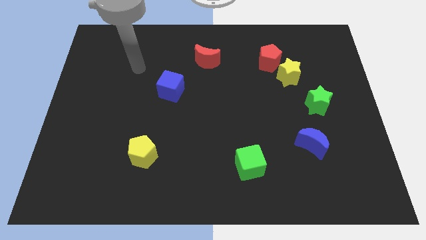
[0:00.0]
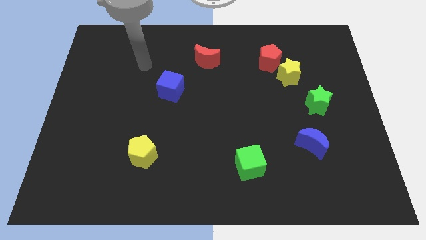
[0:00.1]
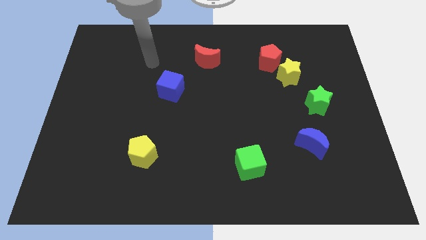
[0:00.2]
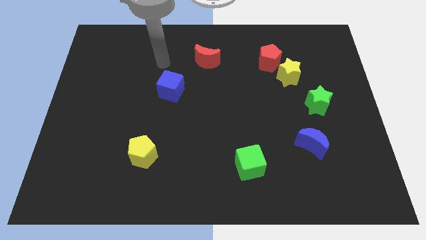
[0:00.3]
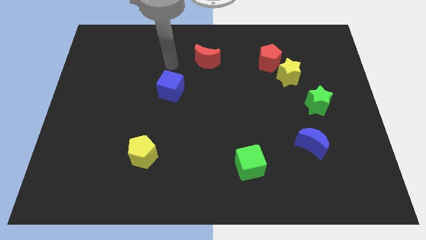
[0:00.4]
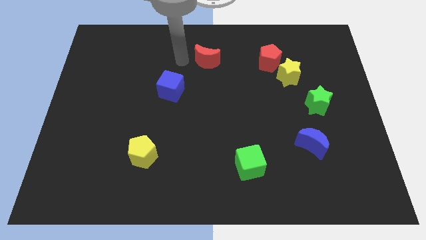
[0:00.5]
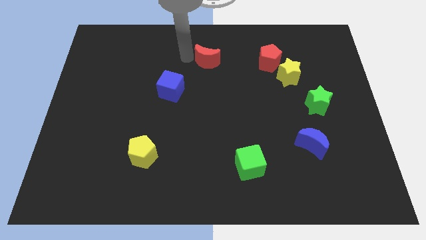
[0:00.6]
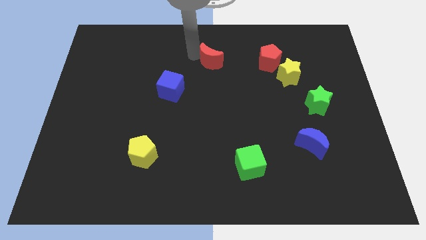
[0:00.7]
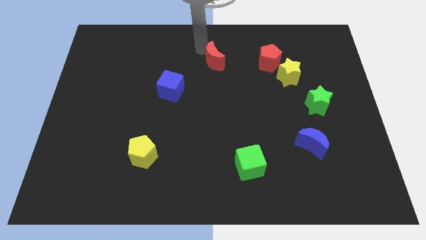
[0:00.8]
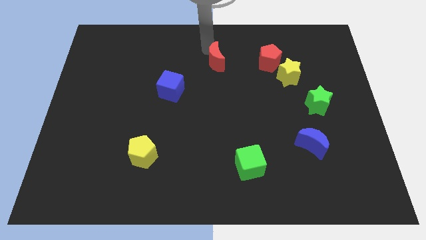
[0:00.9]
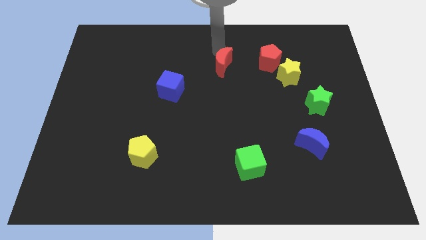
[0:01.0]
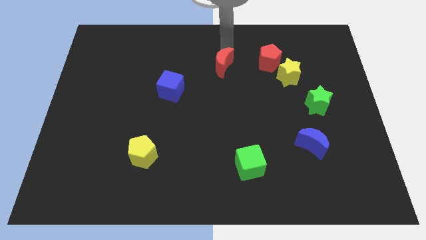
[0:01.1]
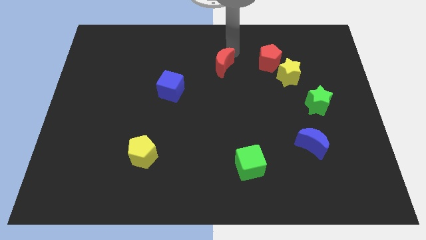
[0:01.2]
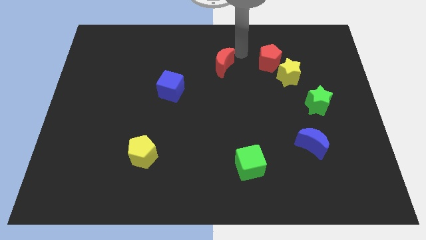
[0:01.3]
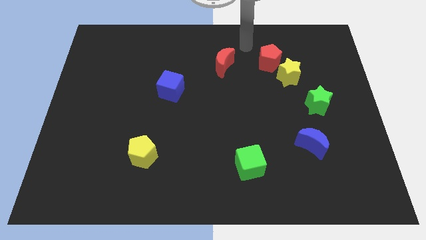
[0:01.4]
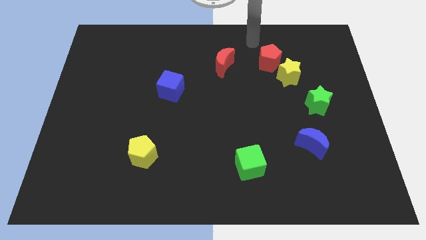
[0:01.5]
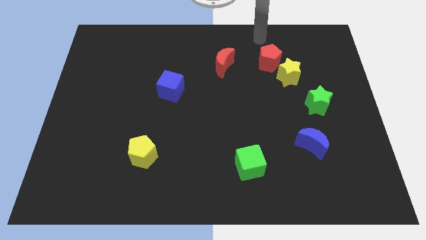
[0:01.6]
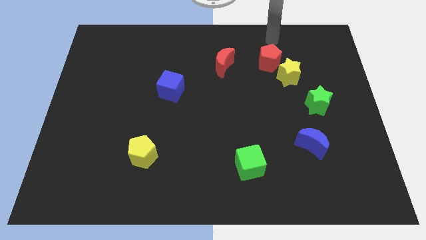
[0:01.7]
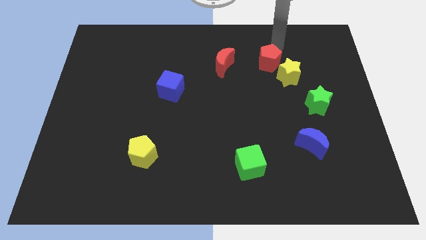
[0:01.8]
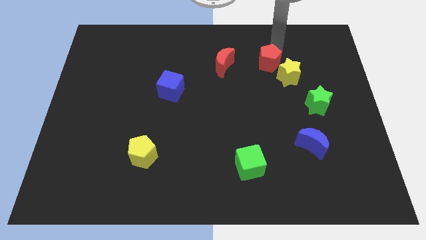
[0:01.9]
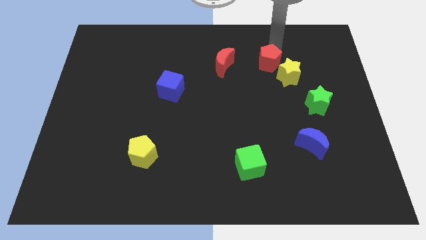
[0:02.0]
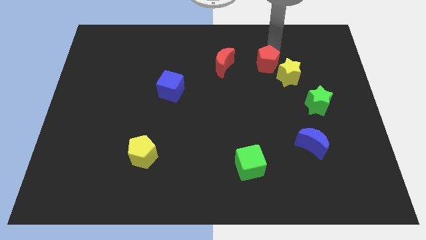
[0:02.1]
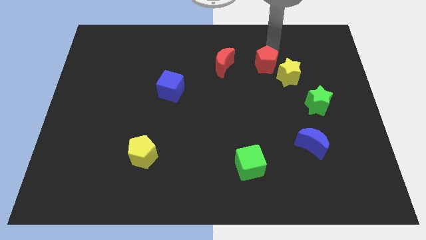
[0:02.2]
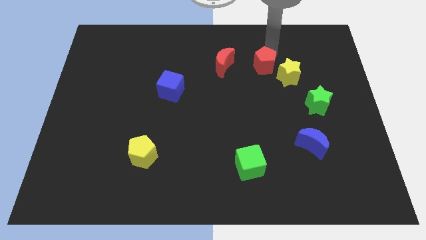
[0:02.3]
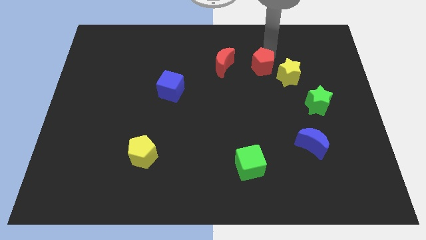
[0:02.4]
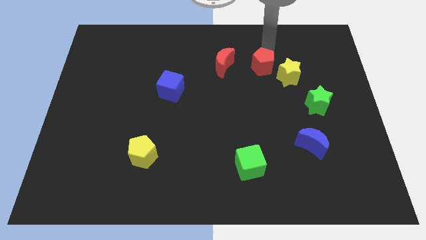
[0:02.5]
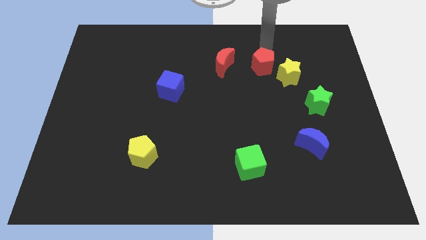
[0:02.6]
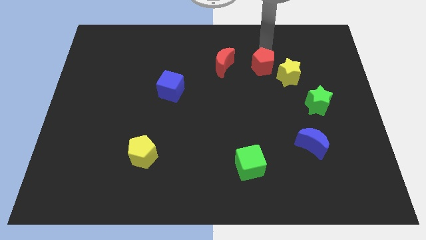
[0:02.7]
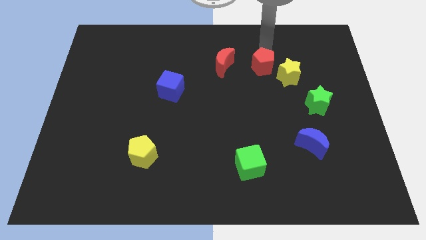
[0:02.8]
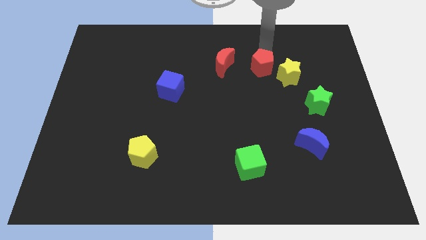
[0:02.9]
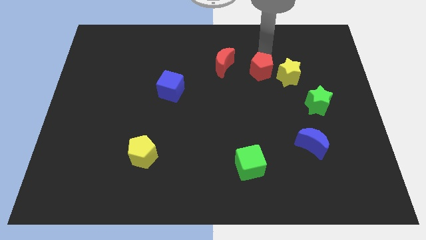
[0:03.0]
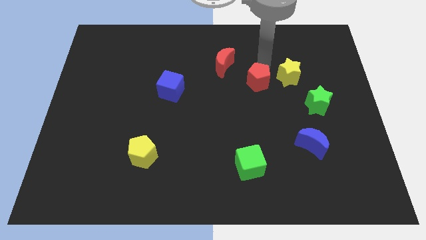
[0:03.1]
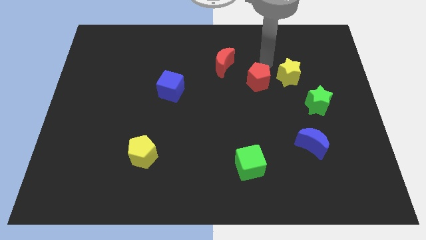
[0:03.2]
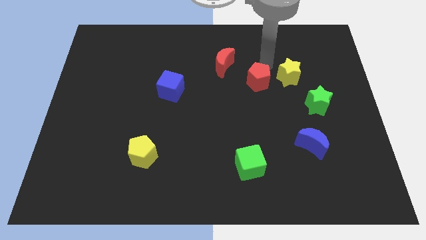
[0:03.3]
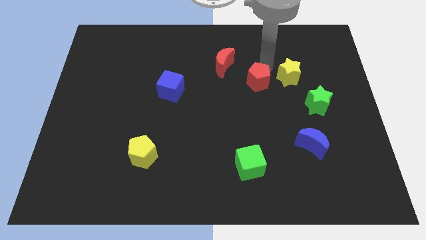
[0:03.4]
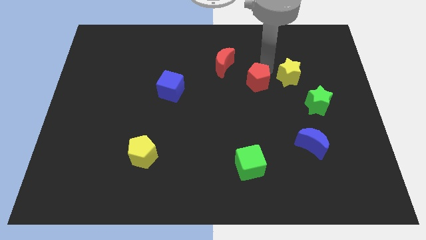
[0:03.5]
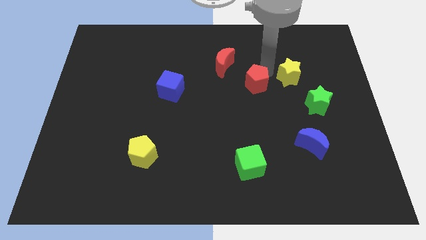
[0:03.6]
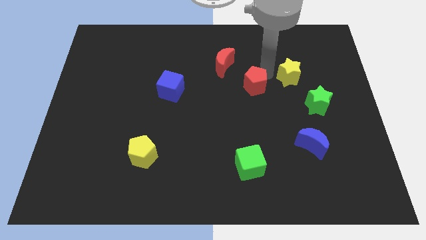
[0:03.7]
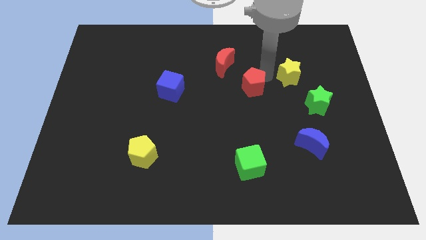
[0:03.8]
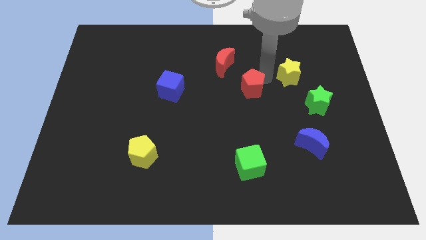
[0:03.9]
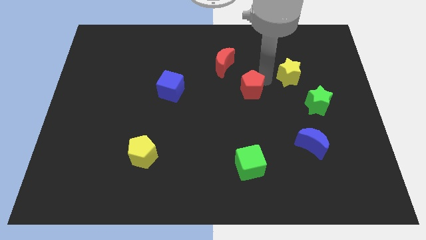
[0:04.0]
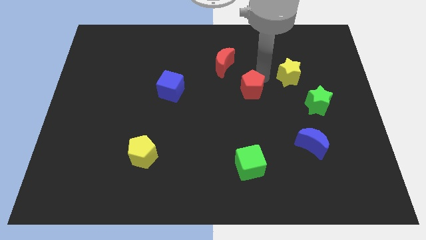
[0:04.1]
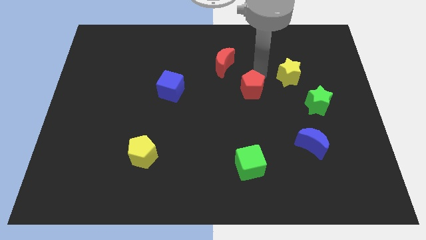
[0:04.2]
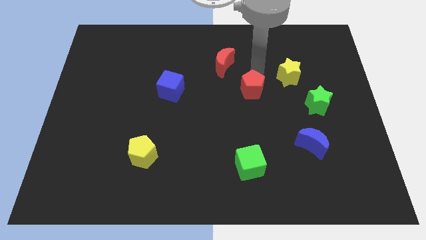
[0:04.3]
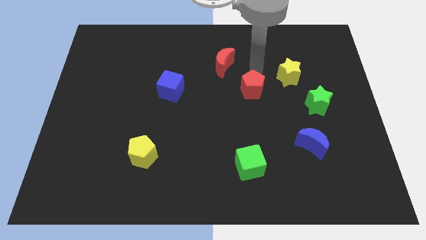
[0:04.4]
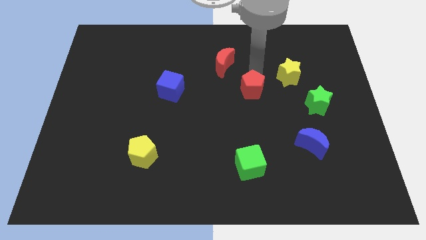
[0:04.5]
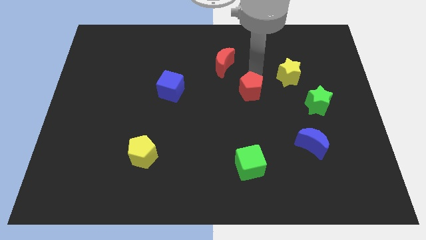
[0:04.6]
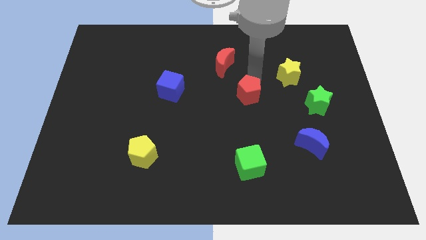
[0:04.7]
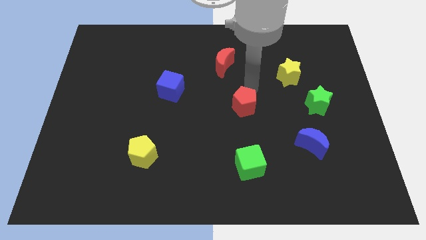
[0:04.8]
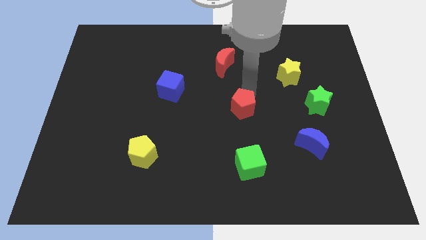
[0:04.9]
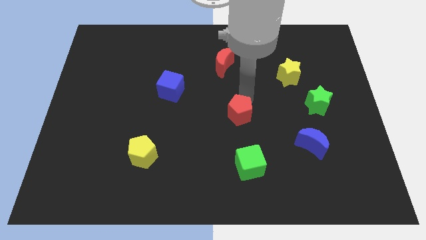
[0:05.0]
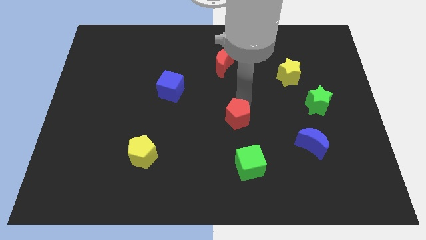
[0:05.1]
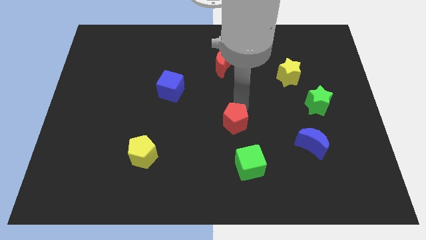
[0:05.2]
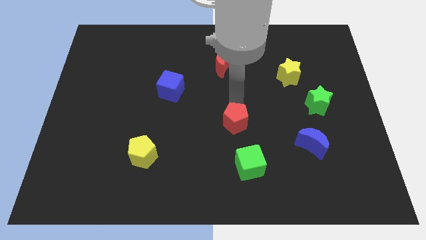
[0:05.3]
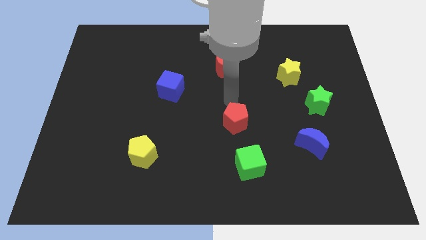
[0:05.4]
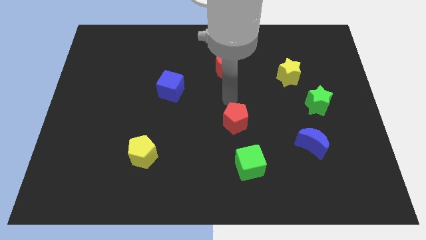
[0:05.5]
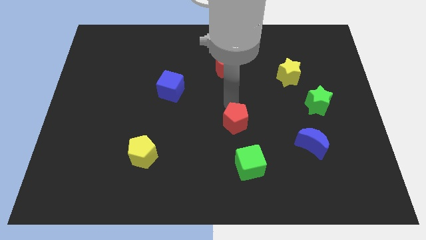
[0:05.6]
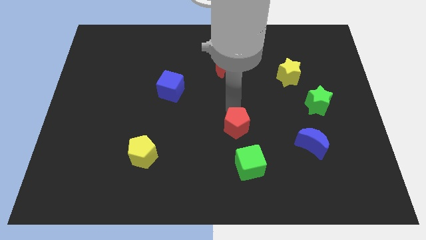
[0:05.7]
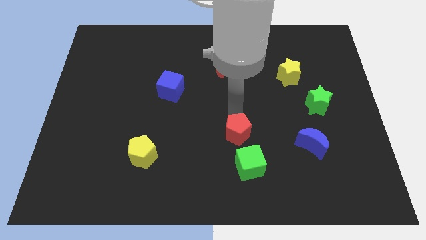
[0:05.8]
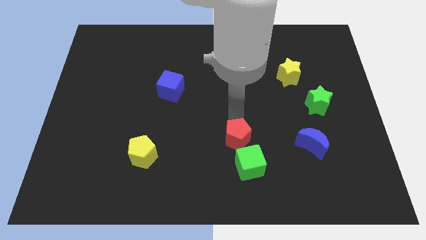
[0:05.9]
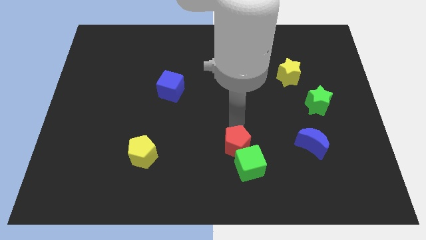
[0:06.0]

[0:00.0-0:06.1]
push the red pentagon next to the green cube

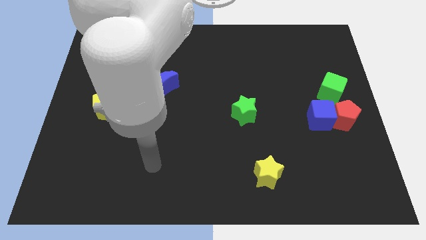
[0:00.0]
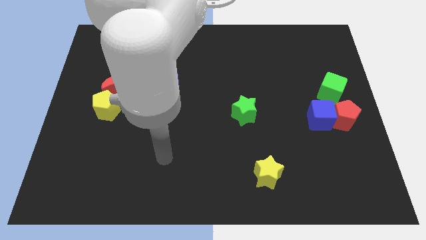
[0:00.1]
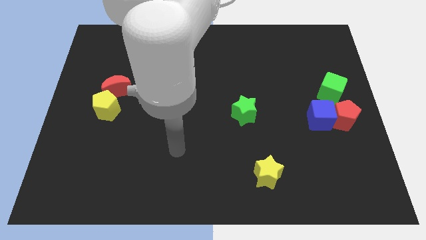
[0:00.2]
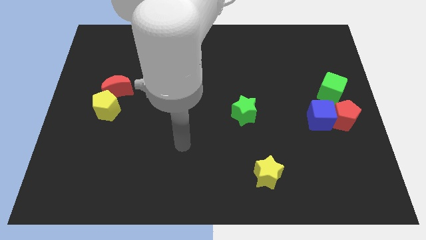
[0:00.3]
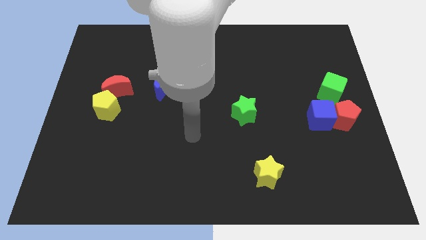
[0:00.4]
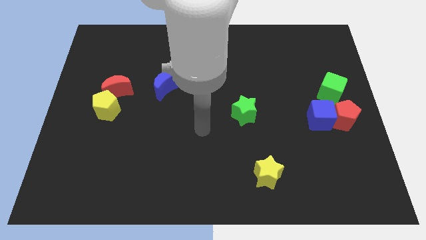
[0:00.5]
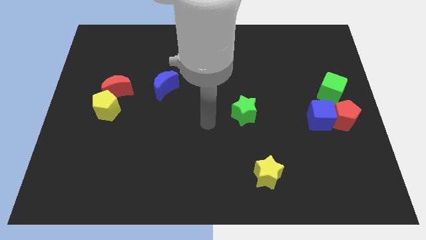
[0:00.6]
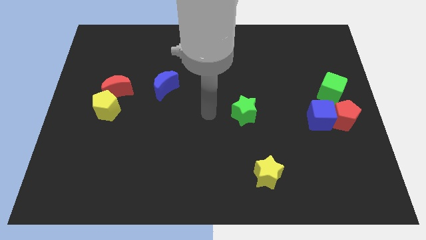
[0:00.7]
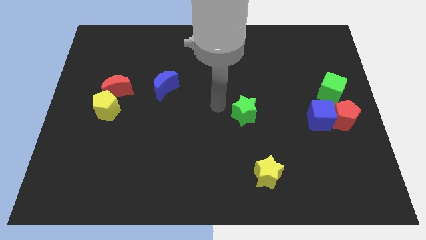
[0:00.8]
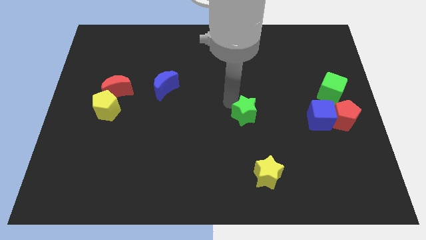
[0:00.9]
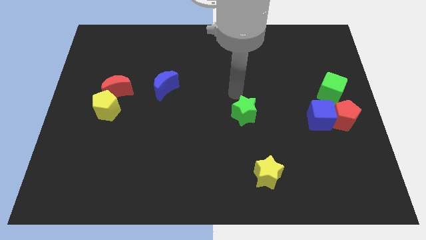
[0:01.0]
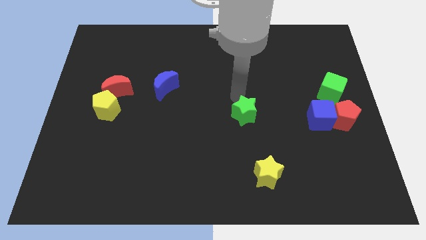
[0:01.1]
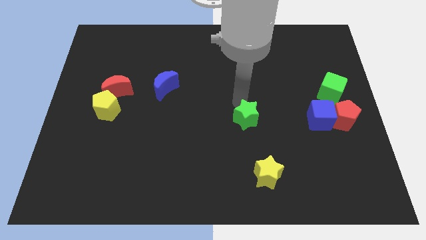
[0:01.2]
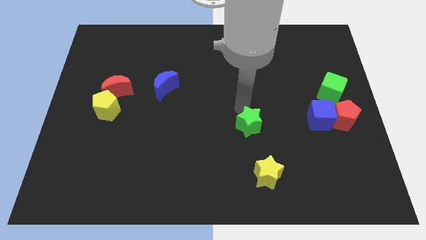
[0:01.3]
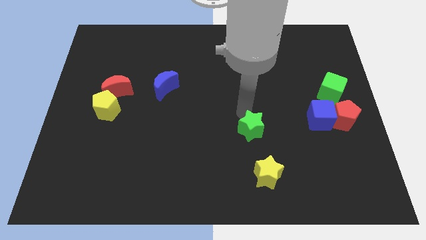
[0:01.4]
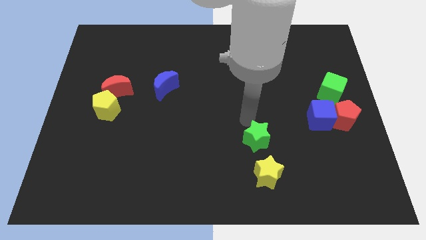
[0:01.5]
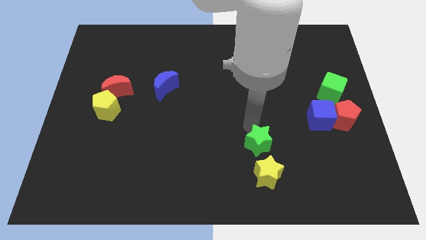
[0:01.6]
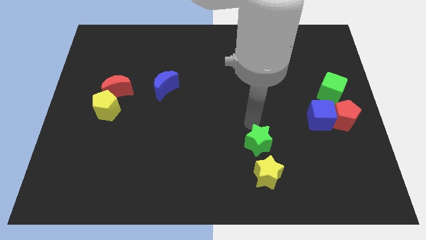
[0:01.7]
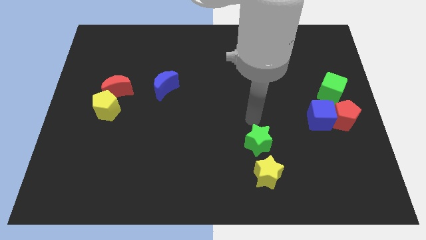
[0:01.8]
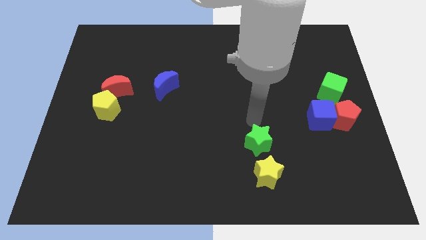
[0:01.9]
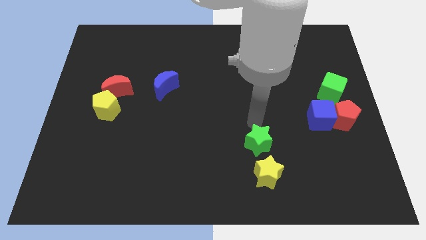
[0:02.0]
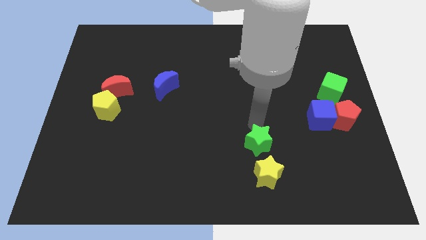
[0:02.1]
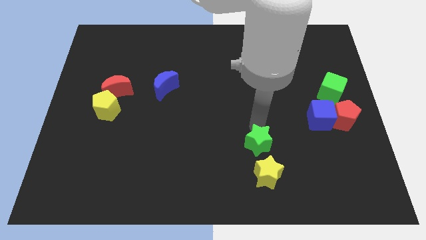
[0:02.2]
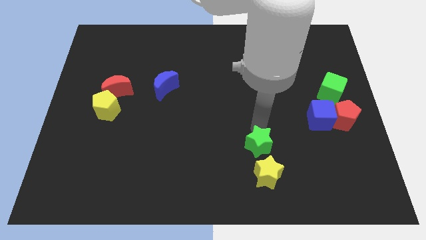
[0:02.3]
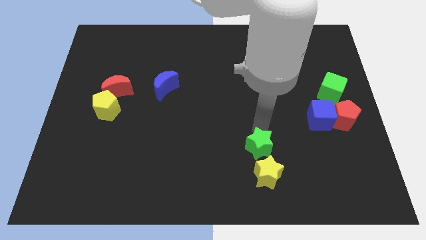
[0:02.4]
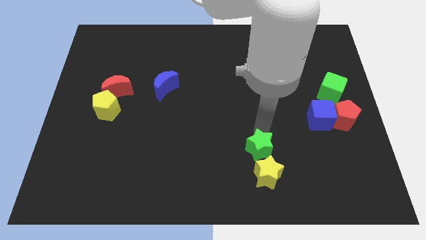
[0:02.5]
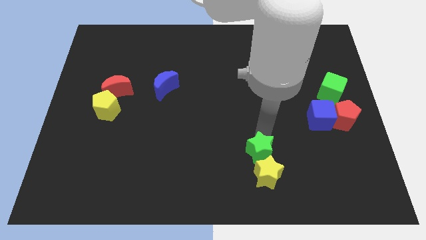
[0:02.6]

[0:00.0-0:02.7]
move the green star next to the yellow star
